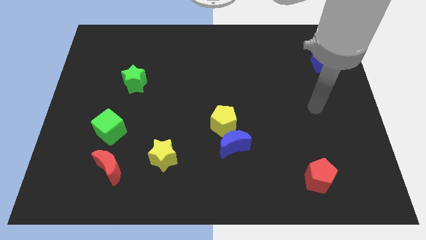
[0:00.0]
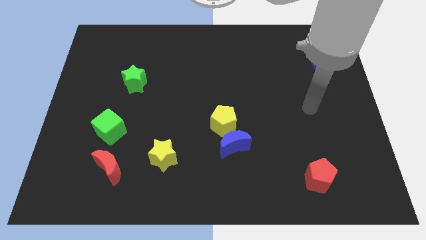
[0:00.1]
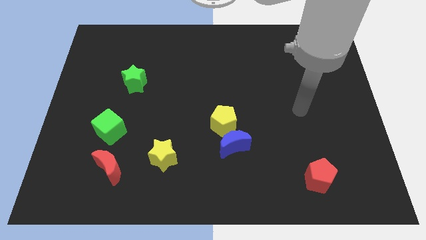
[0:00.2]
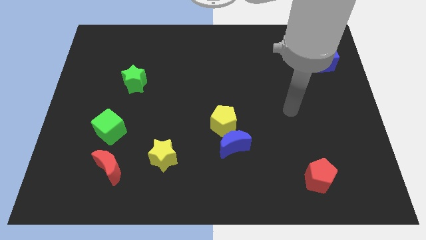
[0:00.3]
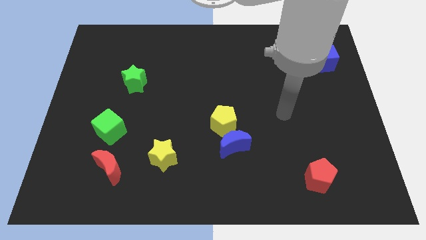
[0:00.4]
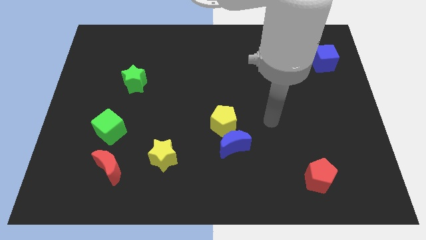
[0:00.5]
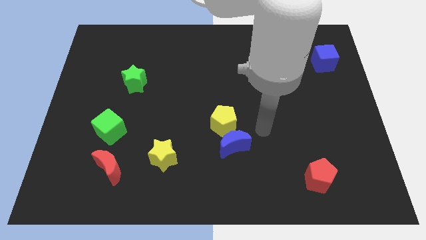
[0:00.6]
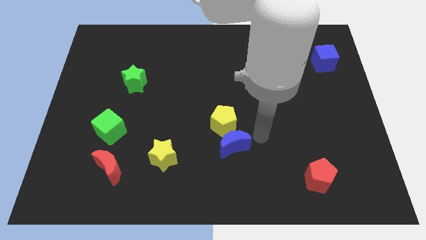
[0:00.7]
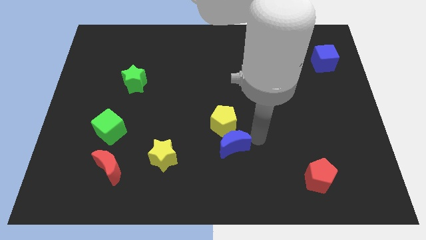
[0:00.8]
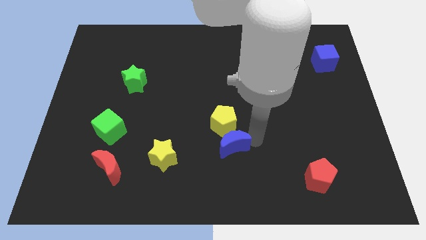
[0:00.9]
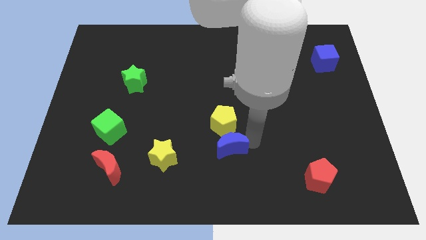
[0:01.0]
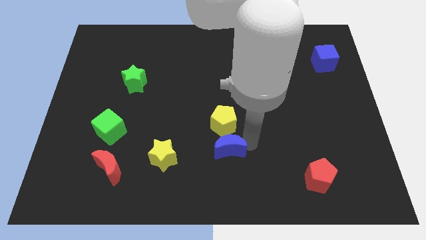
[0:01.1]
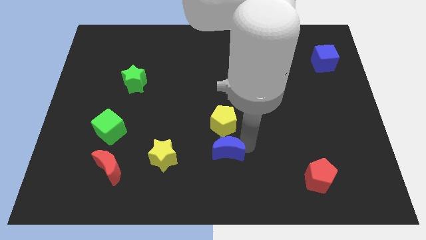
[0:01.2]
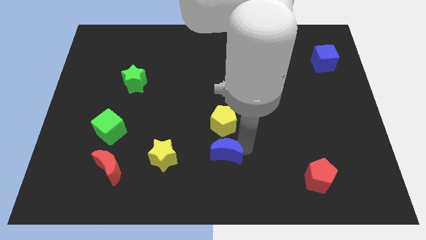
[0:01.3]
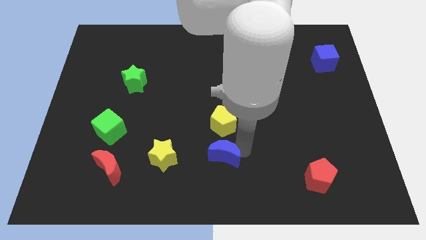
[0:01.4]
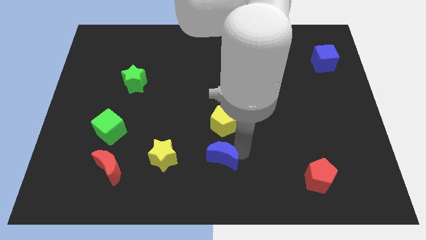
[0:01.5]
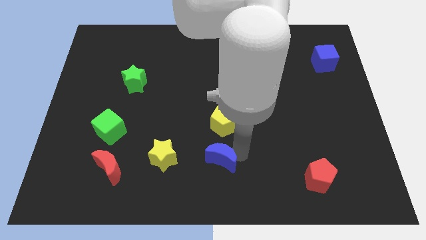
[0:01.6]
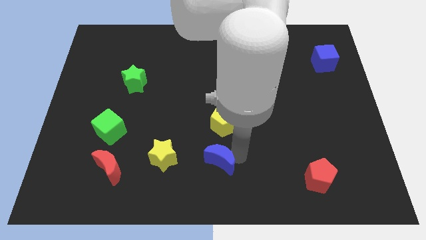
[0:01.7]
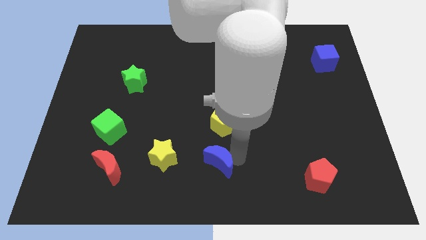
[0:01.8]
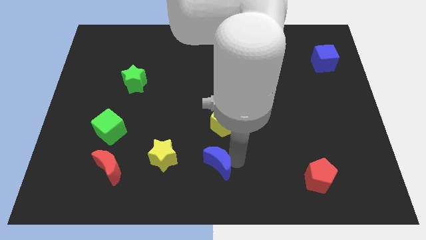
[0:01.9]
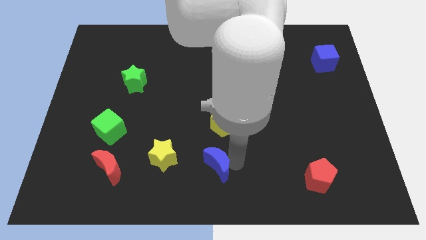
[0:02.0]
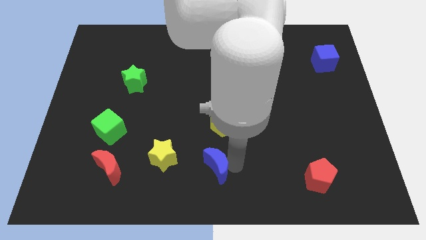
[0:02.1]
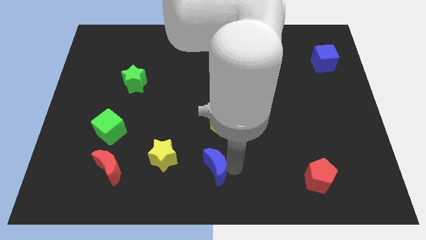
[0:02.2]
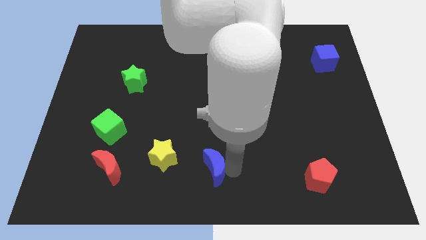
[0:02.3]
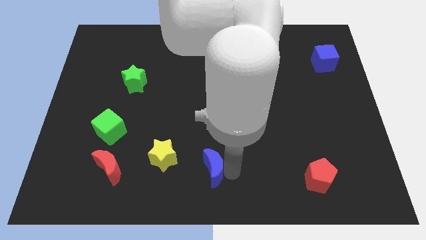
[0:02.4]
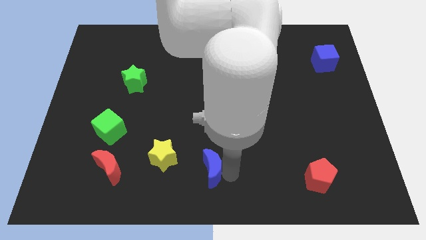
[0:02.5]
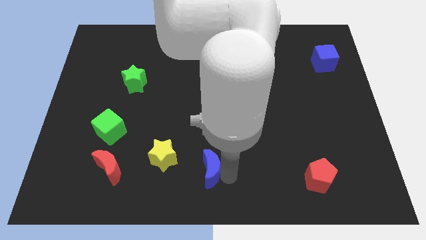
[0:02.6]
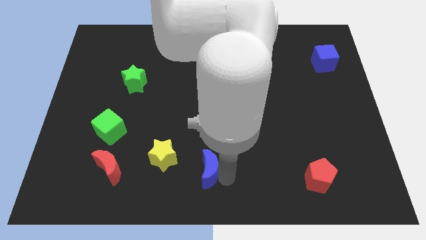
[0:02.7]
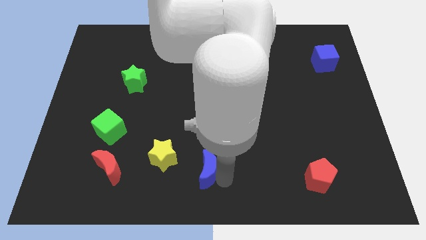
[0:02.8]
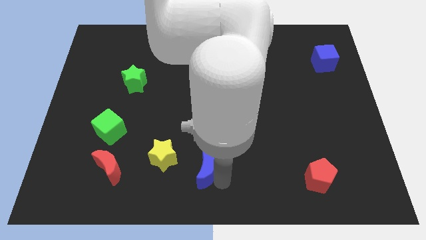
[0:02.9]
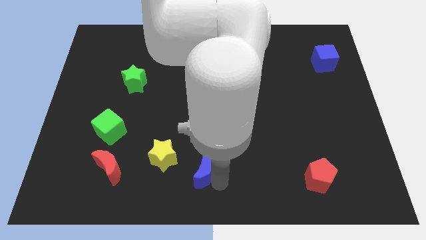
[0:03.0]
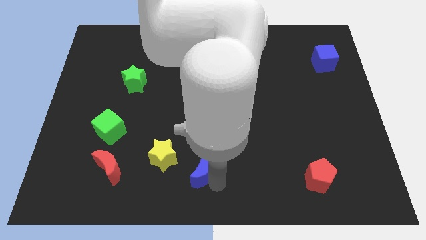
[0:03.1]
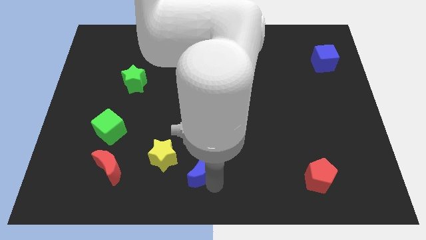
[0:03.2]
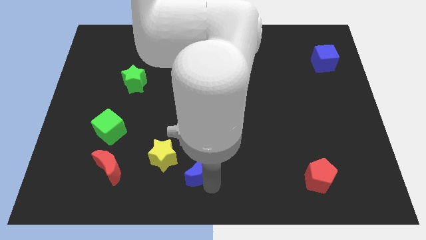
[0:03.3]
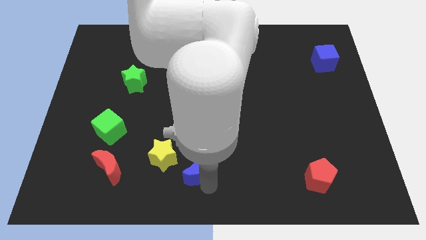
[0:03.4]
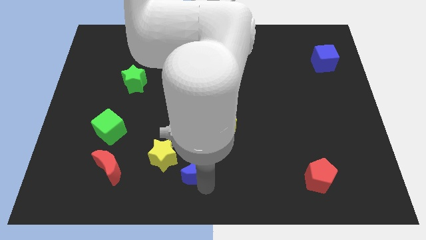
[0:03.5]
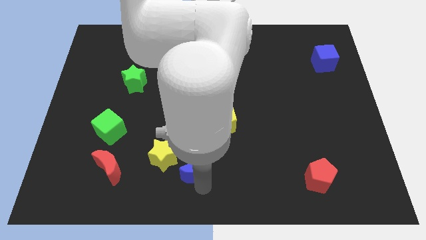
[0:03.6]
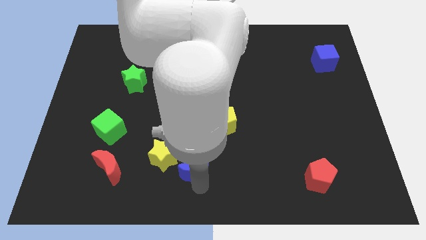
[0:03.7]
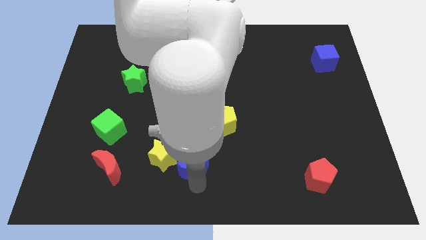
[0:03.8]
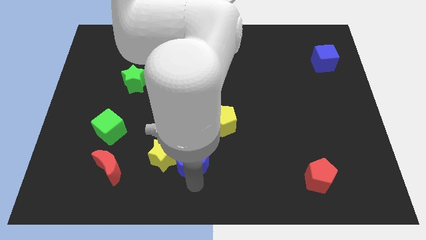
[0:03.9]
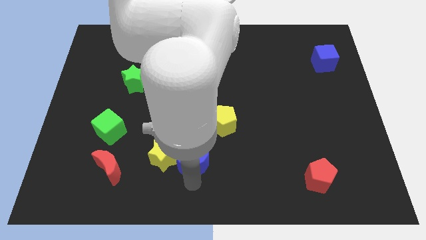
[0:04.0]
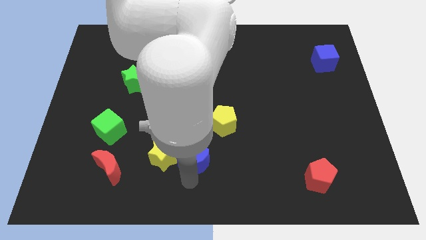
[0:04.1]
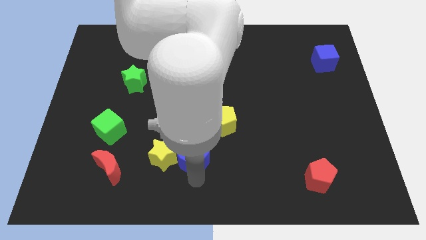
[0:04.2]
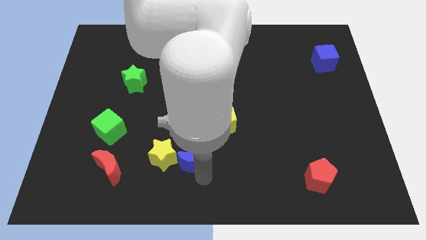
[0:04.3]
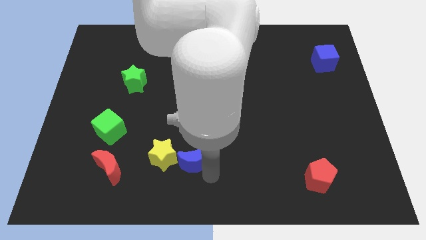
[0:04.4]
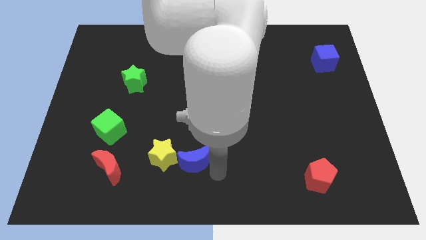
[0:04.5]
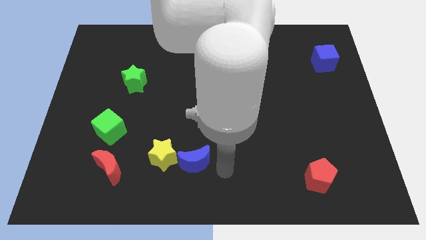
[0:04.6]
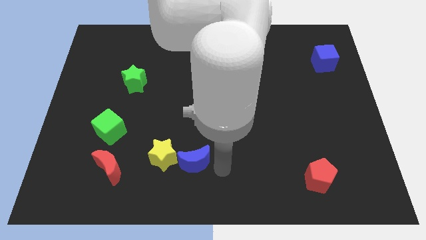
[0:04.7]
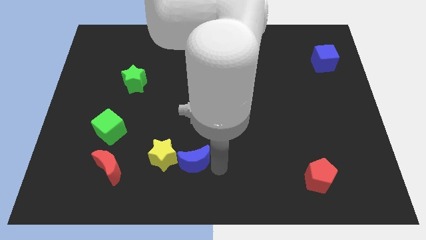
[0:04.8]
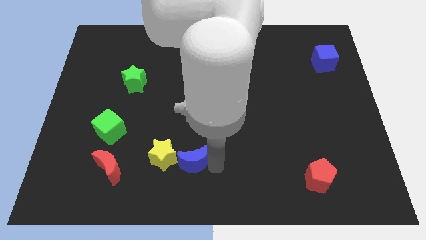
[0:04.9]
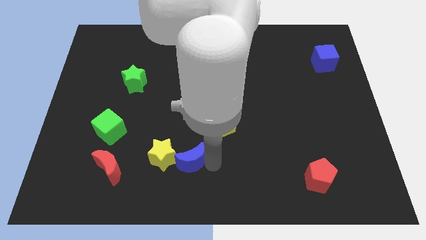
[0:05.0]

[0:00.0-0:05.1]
put the blue moon next to the yellow star

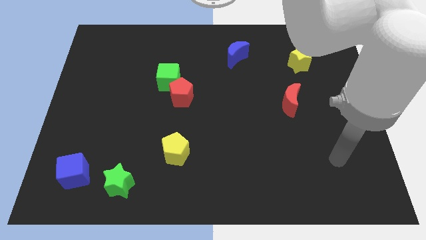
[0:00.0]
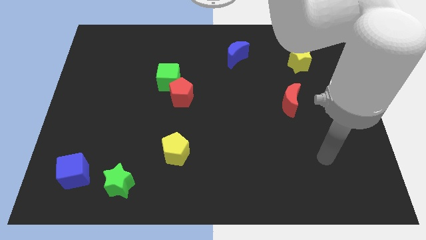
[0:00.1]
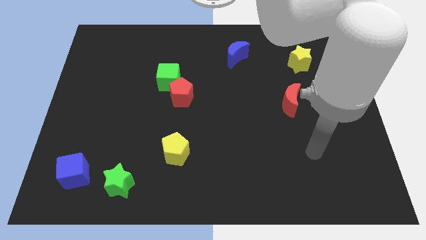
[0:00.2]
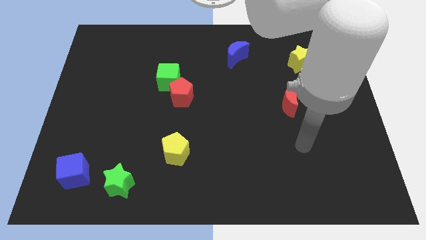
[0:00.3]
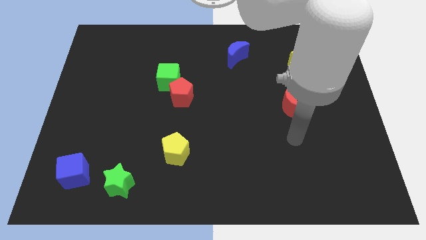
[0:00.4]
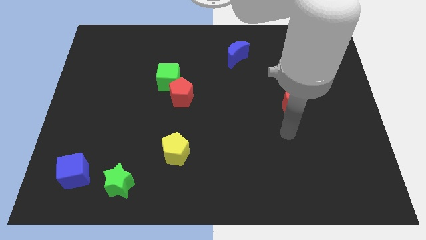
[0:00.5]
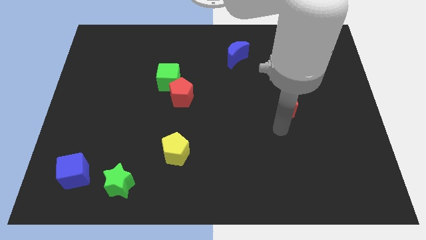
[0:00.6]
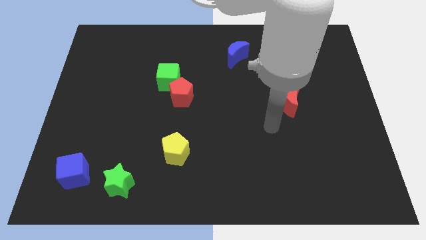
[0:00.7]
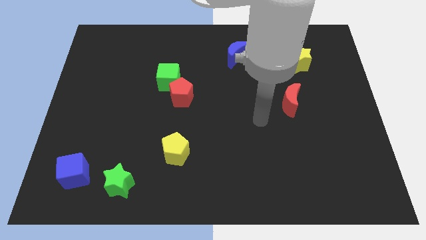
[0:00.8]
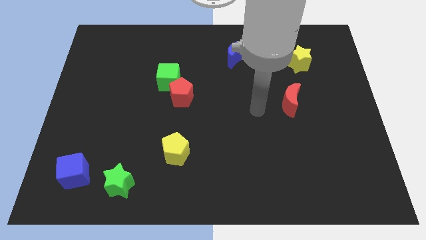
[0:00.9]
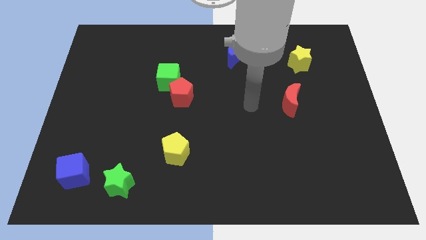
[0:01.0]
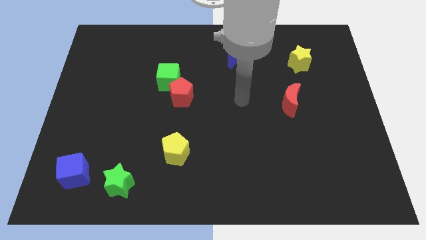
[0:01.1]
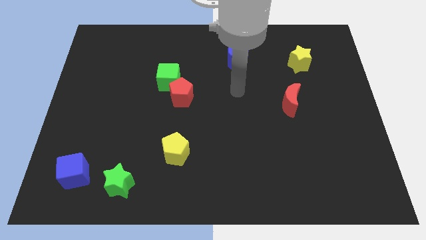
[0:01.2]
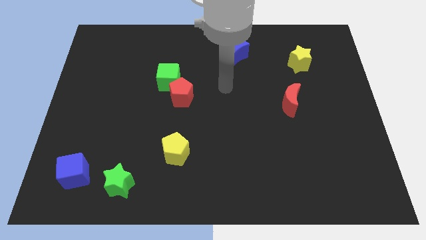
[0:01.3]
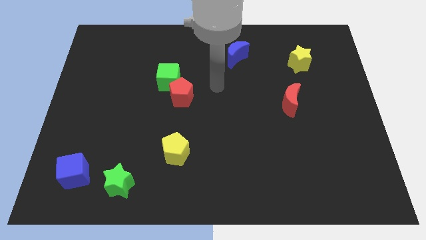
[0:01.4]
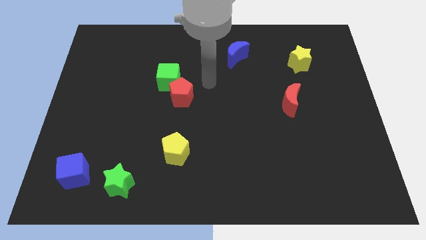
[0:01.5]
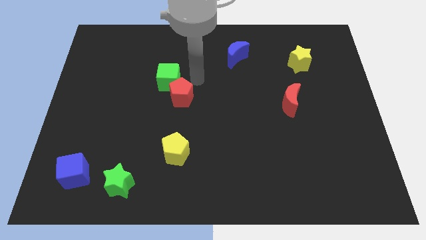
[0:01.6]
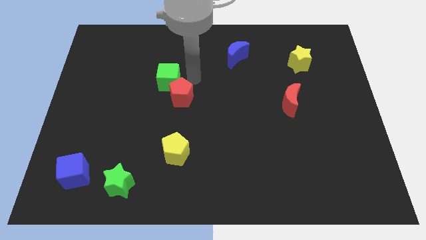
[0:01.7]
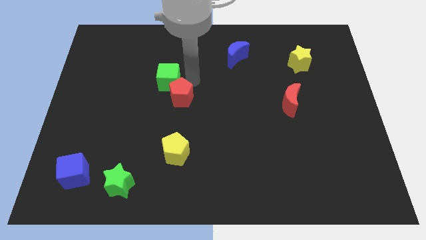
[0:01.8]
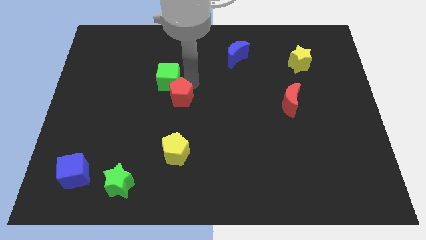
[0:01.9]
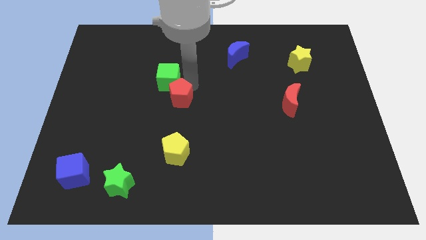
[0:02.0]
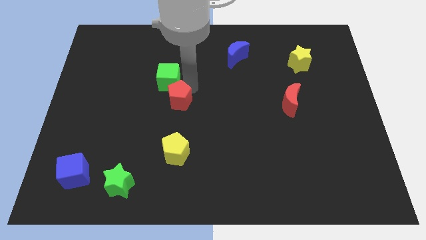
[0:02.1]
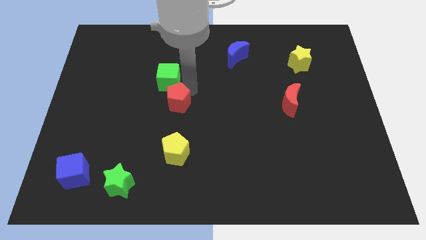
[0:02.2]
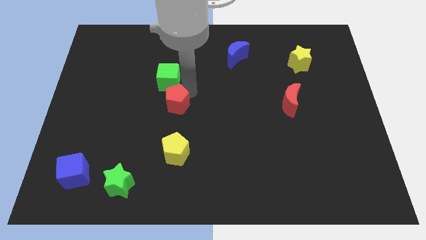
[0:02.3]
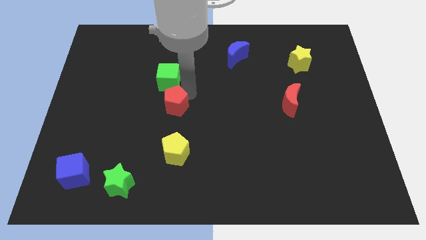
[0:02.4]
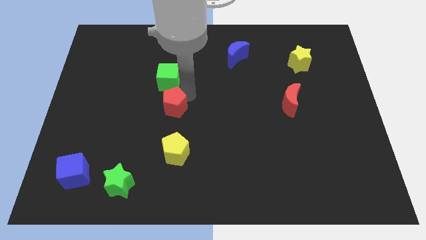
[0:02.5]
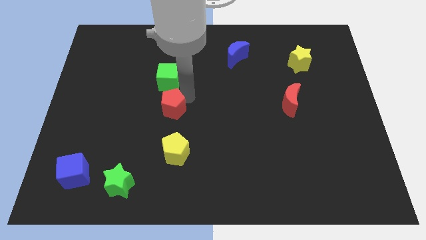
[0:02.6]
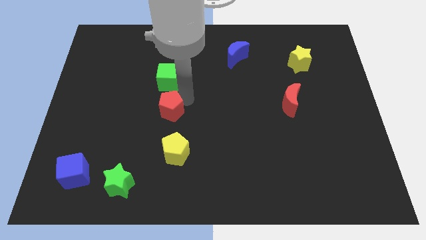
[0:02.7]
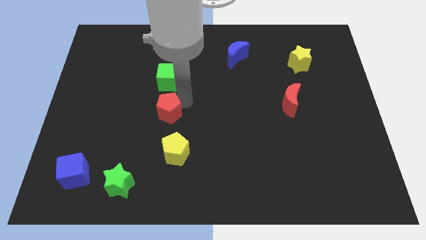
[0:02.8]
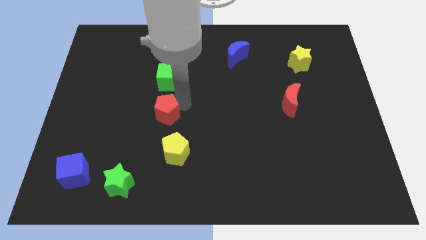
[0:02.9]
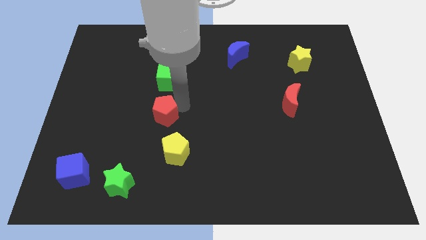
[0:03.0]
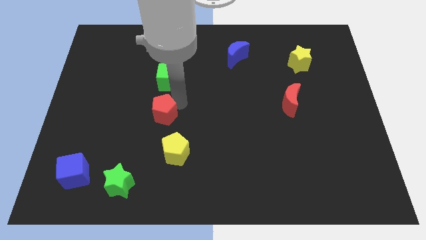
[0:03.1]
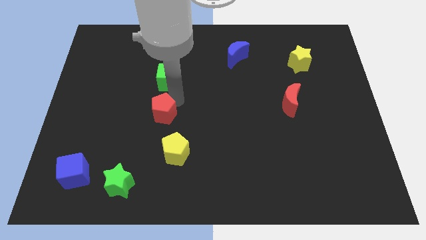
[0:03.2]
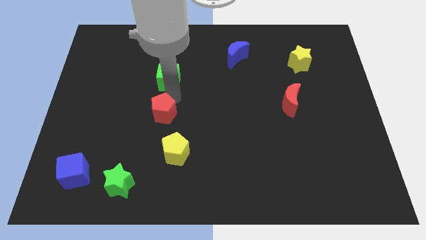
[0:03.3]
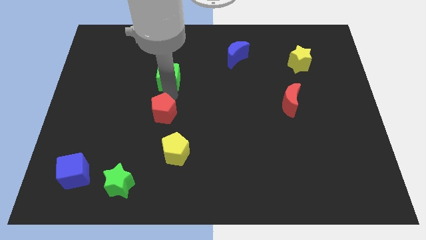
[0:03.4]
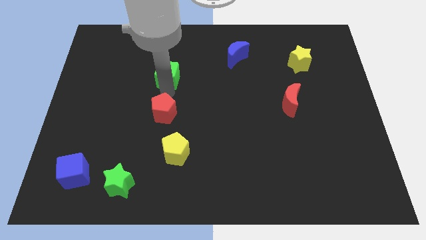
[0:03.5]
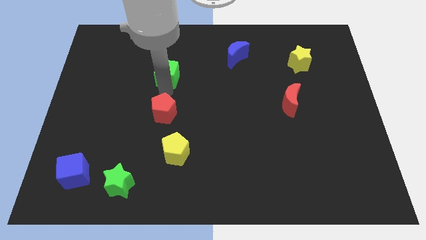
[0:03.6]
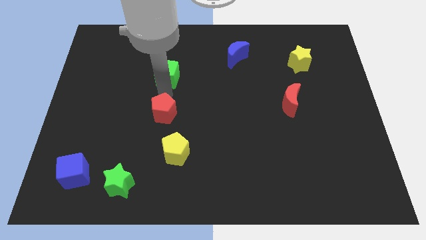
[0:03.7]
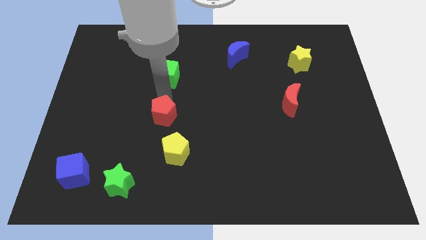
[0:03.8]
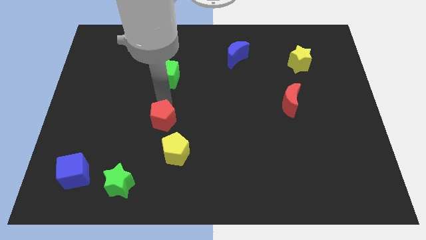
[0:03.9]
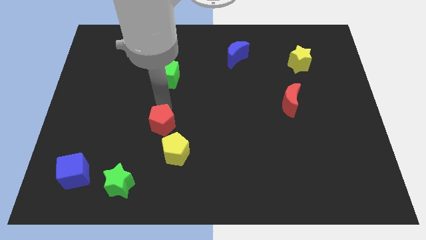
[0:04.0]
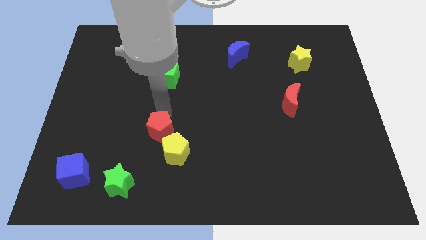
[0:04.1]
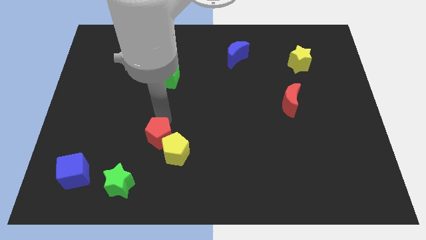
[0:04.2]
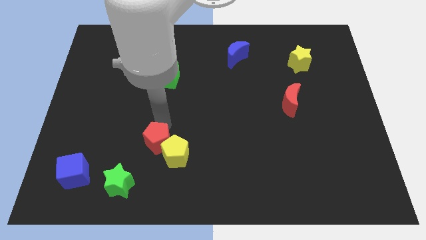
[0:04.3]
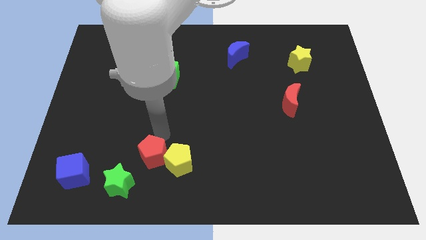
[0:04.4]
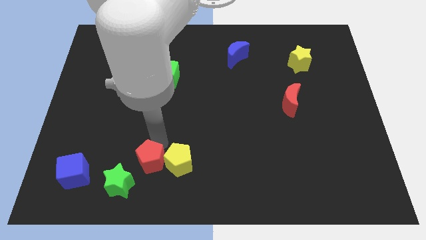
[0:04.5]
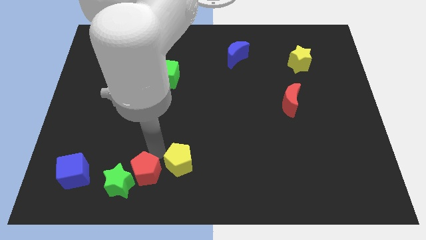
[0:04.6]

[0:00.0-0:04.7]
put the red pentagon towards the green star
